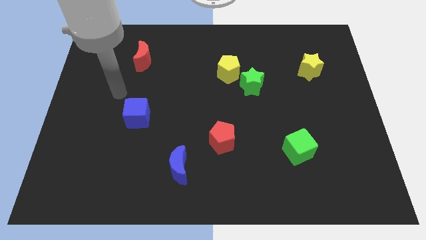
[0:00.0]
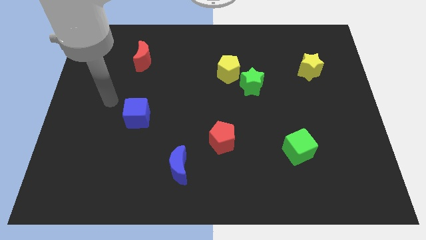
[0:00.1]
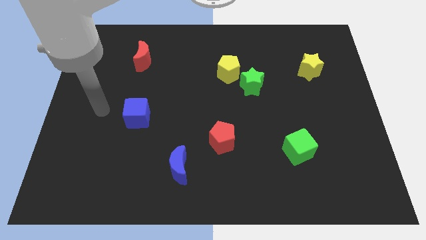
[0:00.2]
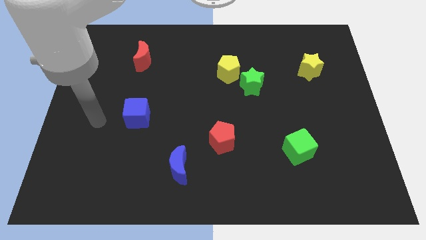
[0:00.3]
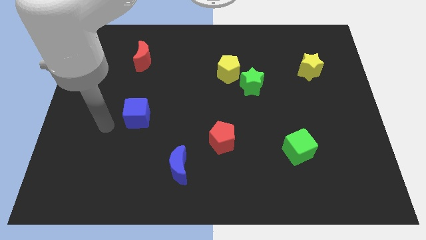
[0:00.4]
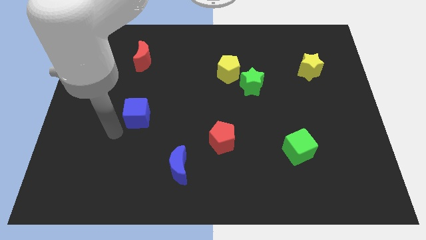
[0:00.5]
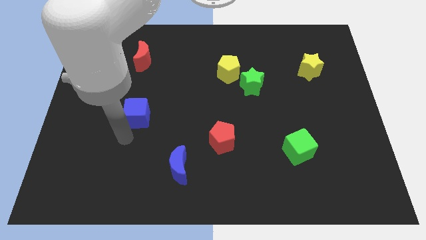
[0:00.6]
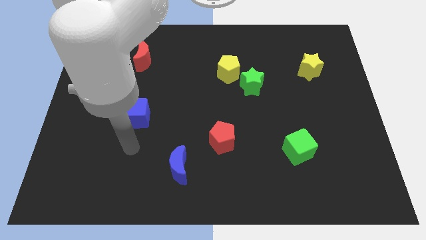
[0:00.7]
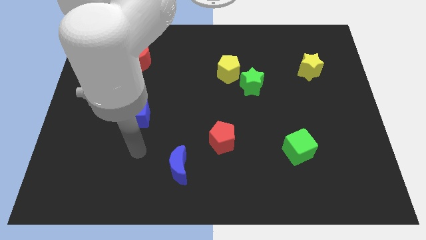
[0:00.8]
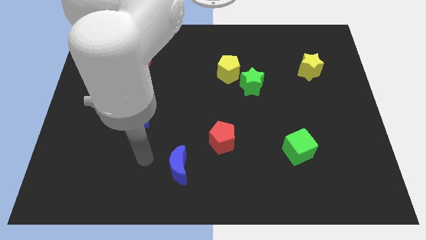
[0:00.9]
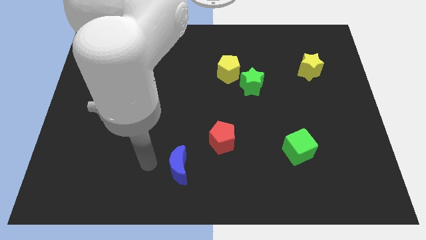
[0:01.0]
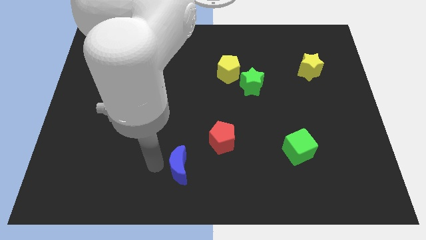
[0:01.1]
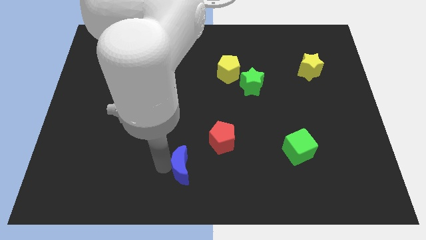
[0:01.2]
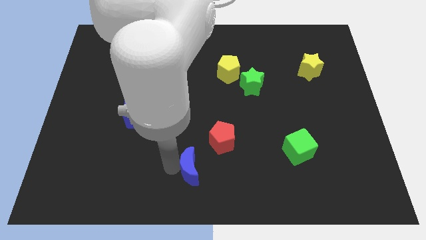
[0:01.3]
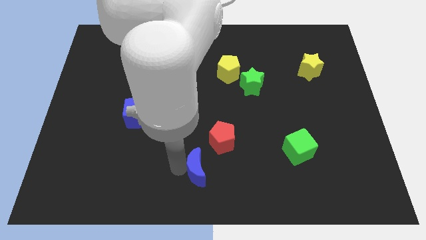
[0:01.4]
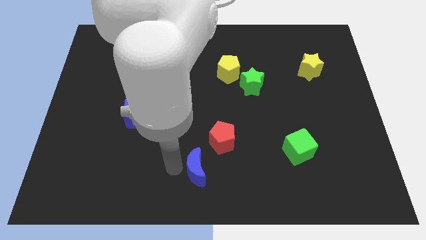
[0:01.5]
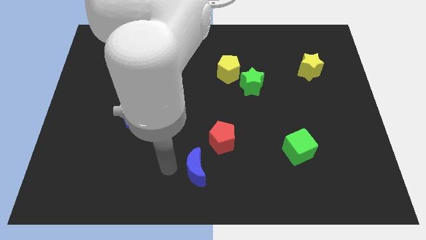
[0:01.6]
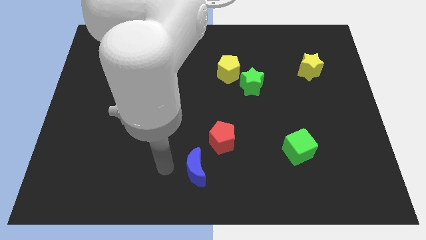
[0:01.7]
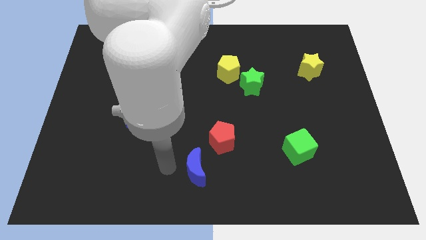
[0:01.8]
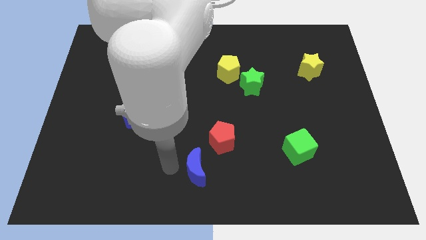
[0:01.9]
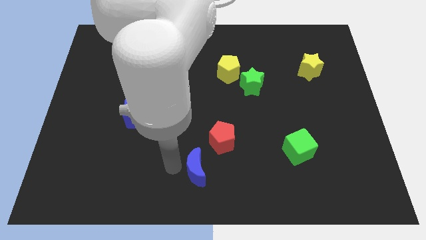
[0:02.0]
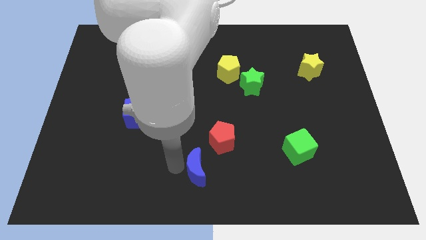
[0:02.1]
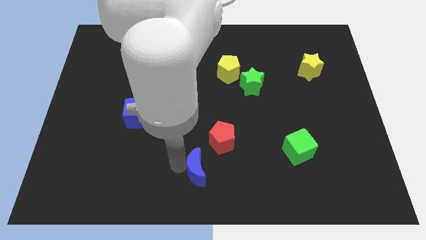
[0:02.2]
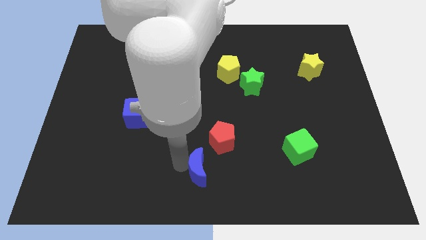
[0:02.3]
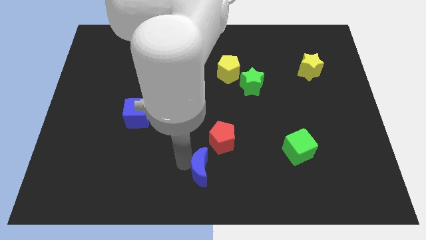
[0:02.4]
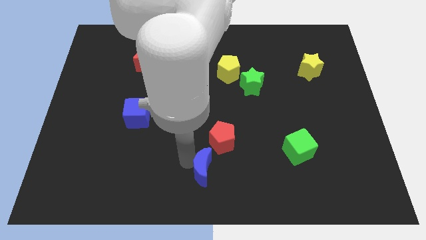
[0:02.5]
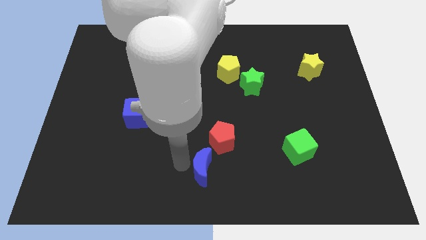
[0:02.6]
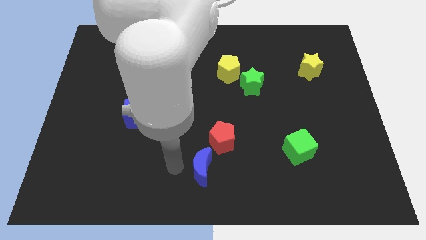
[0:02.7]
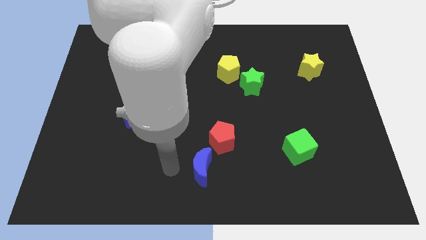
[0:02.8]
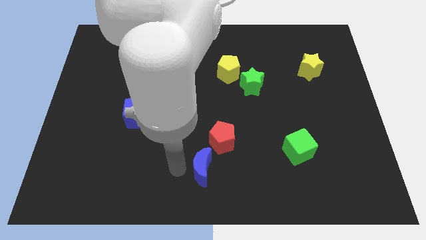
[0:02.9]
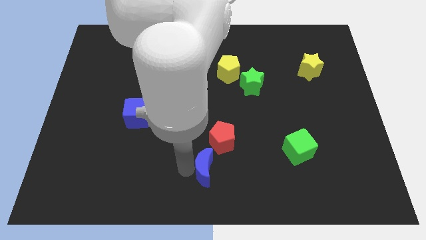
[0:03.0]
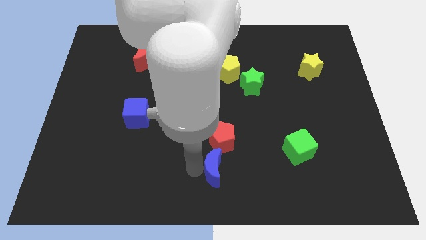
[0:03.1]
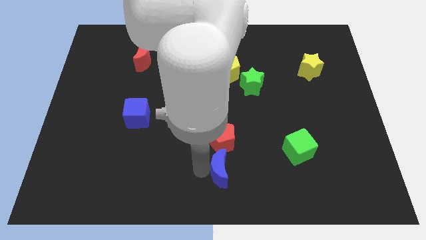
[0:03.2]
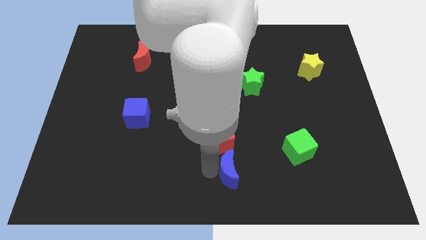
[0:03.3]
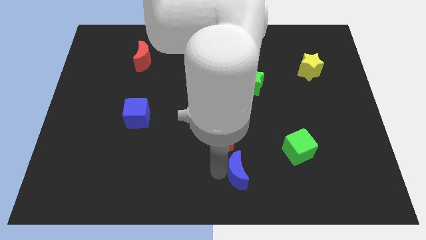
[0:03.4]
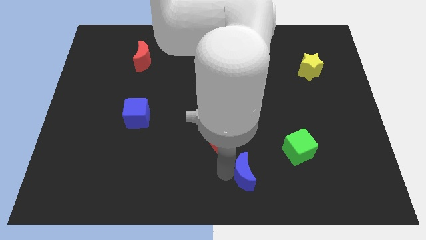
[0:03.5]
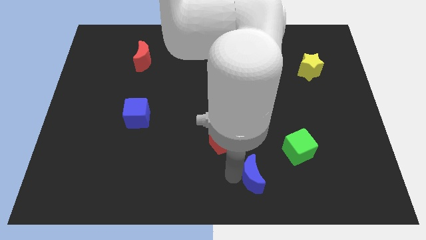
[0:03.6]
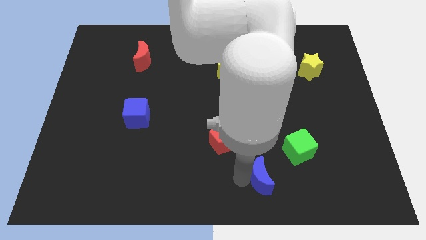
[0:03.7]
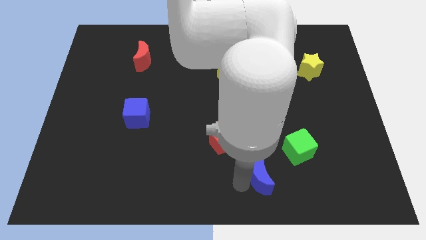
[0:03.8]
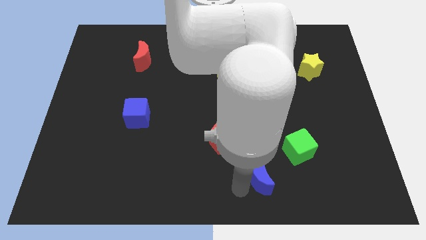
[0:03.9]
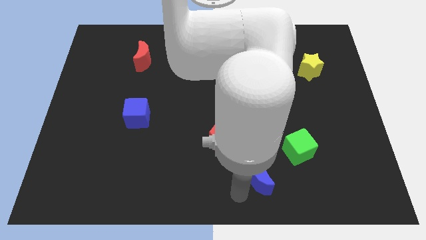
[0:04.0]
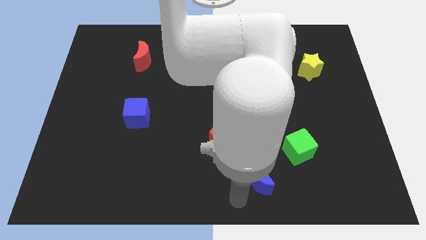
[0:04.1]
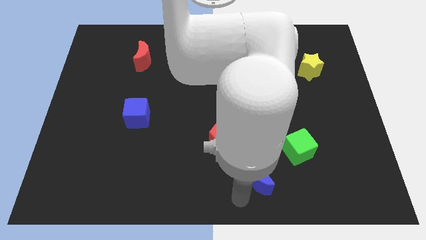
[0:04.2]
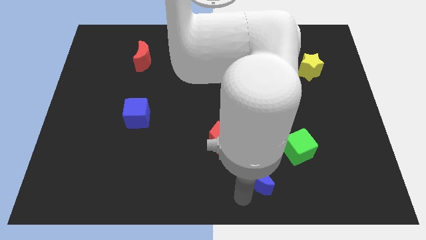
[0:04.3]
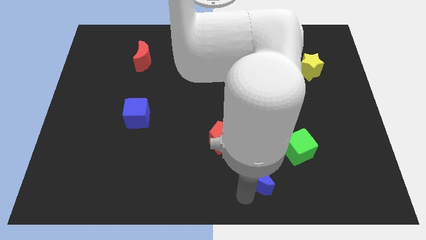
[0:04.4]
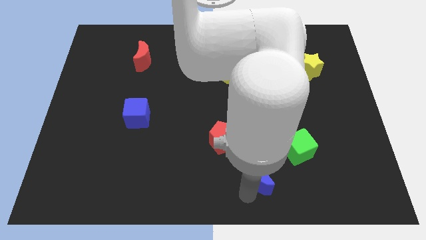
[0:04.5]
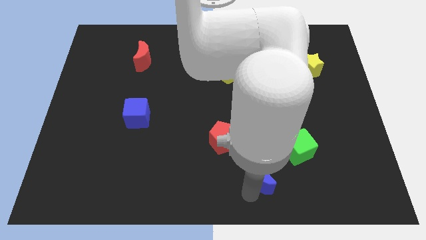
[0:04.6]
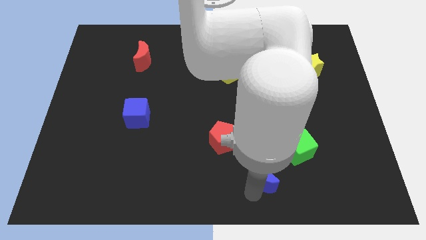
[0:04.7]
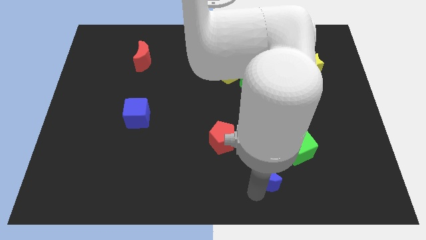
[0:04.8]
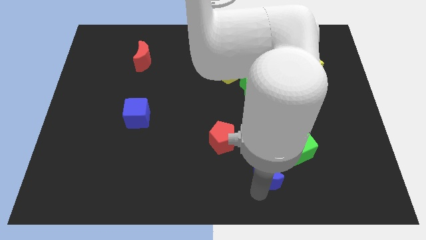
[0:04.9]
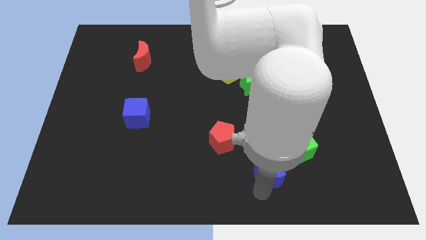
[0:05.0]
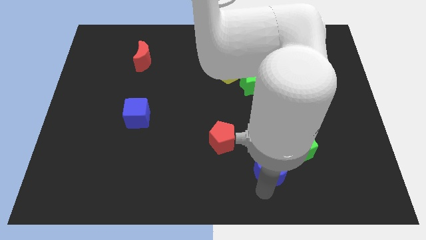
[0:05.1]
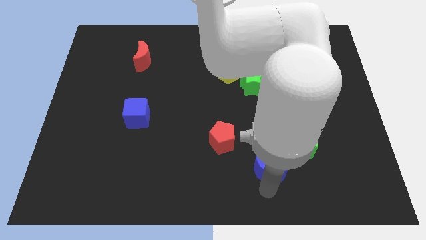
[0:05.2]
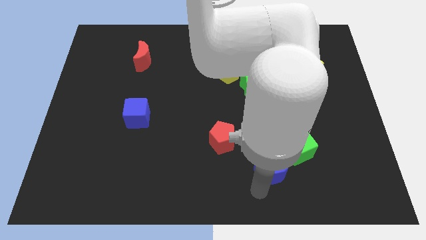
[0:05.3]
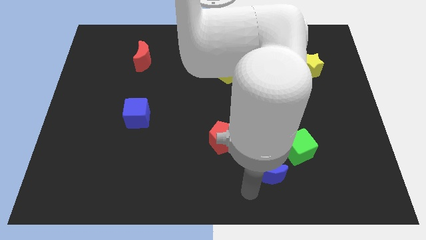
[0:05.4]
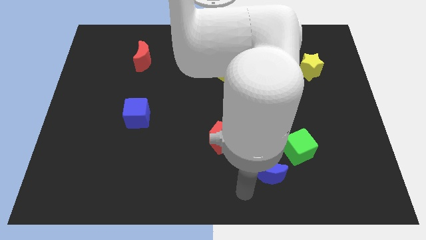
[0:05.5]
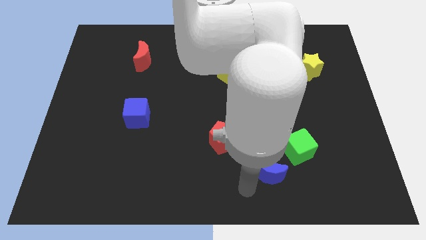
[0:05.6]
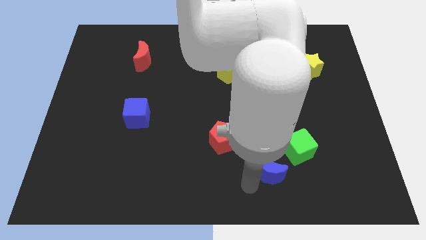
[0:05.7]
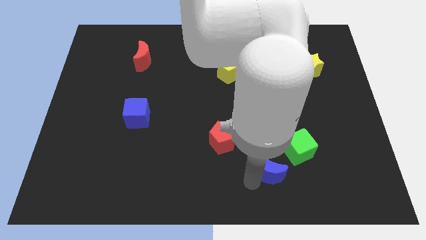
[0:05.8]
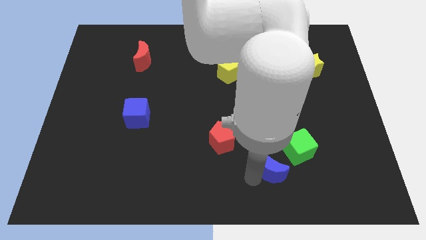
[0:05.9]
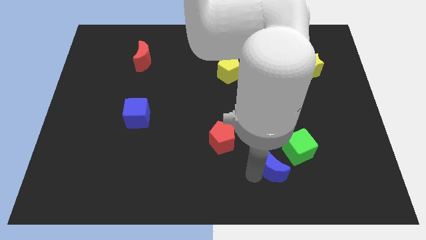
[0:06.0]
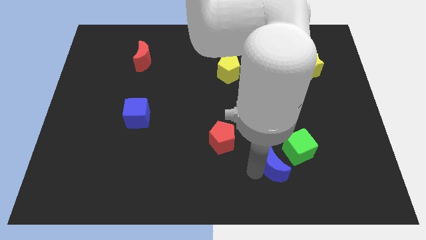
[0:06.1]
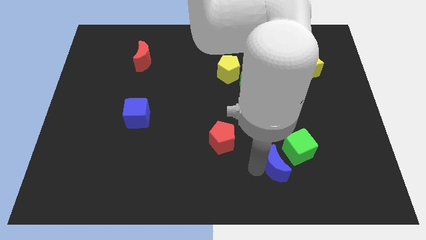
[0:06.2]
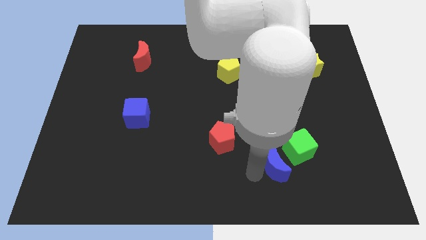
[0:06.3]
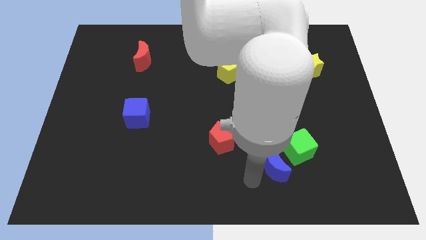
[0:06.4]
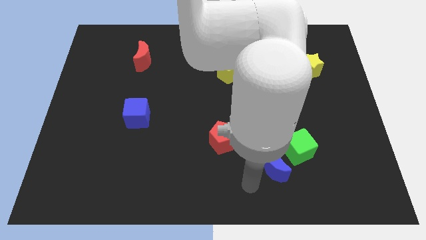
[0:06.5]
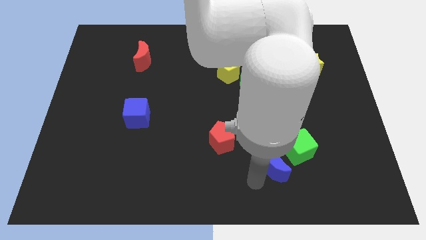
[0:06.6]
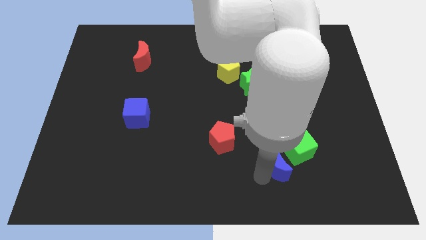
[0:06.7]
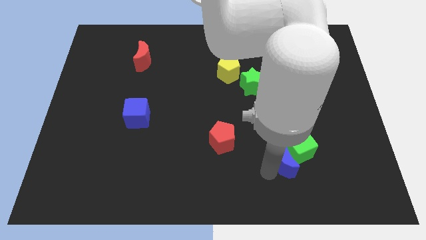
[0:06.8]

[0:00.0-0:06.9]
push the blue moon next to the green cube

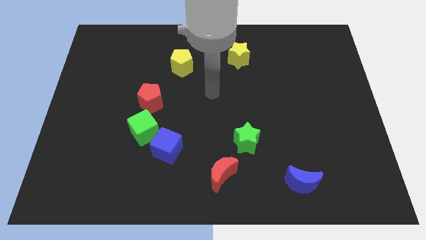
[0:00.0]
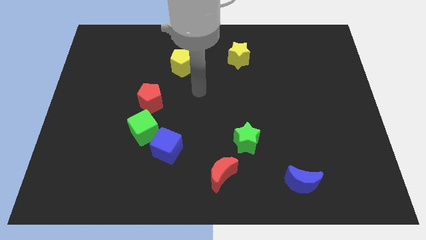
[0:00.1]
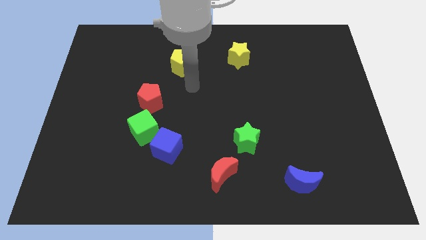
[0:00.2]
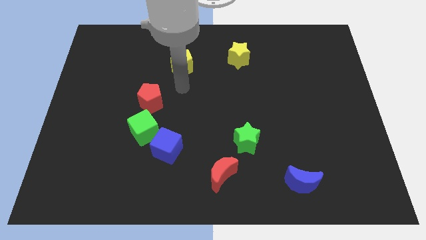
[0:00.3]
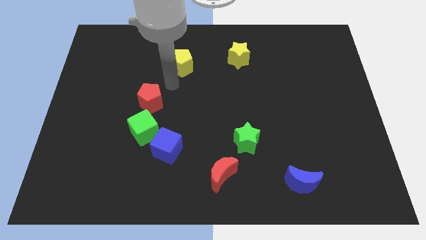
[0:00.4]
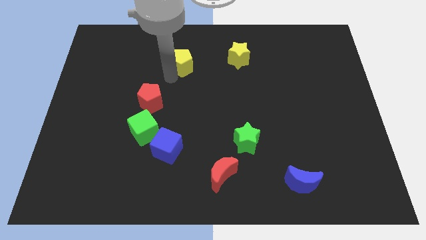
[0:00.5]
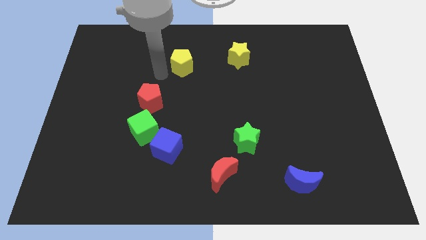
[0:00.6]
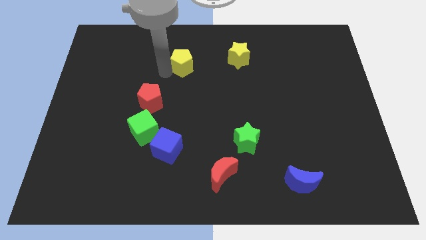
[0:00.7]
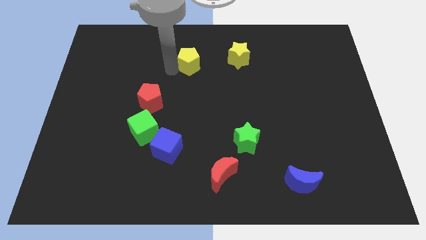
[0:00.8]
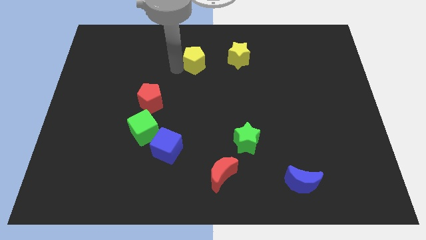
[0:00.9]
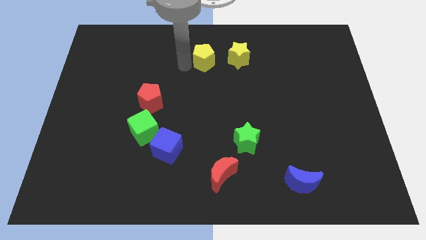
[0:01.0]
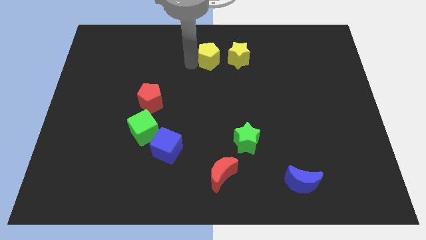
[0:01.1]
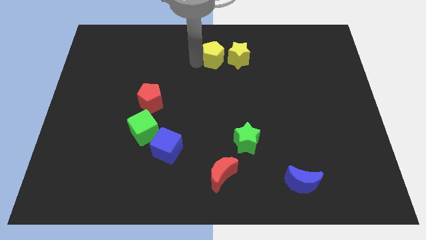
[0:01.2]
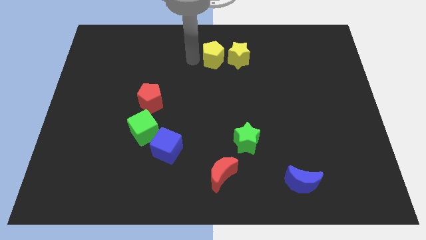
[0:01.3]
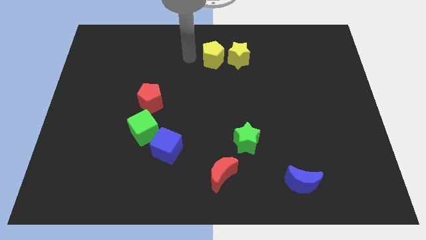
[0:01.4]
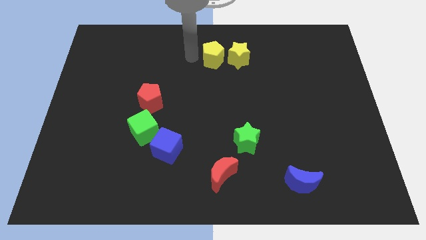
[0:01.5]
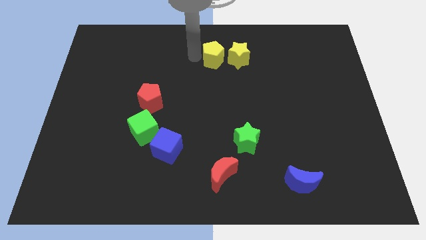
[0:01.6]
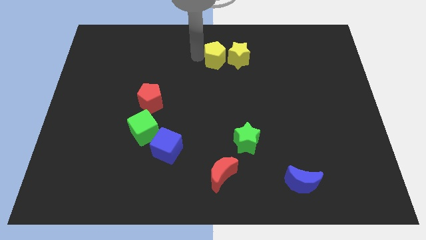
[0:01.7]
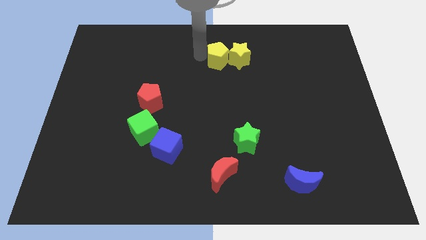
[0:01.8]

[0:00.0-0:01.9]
put the yellow pentagon towards the yellow star
